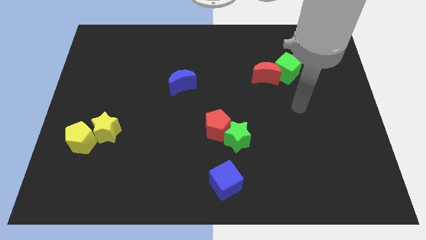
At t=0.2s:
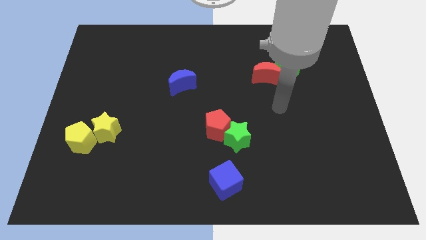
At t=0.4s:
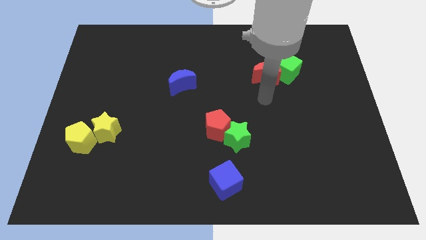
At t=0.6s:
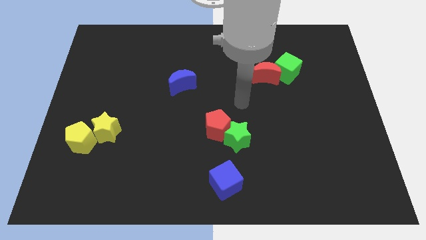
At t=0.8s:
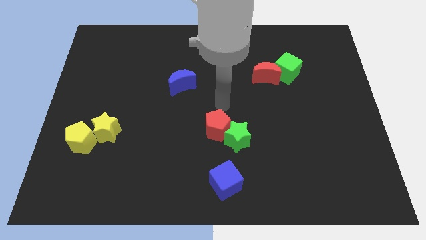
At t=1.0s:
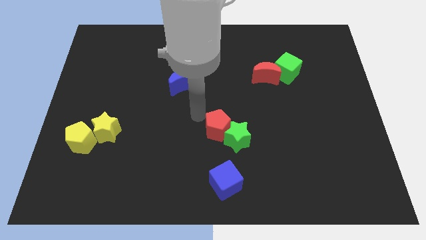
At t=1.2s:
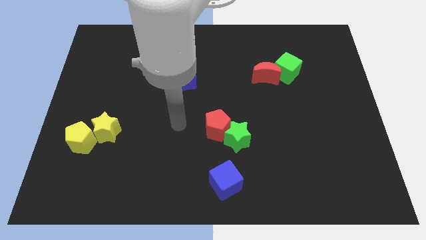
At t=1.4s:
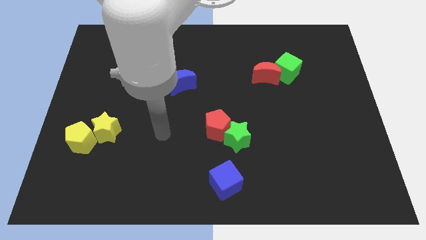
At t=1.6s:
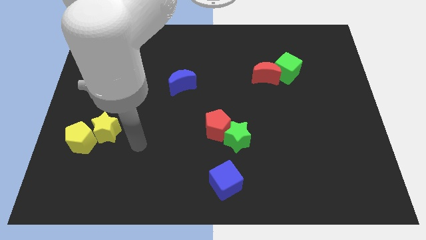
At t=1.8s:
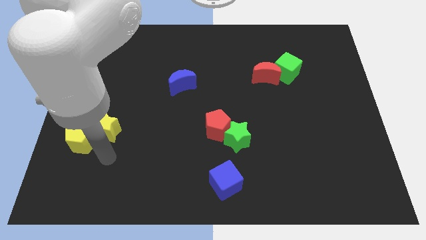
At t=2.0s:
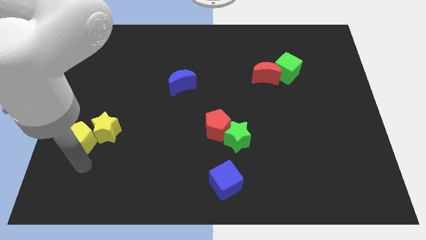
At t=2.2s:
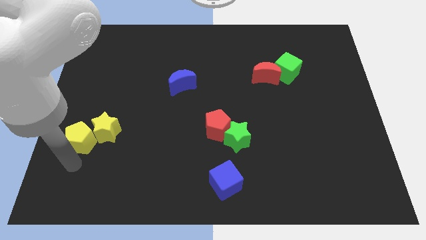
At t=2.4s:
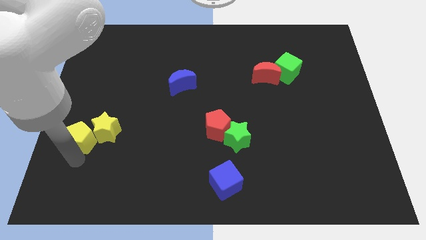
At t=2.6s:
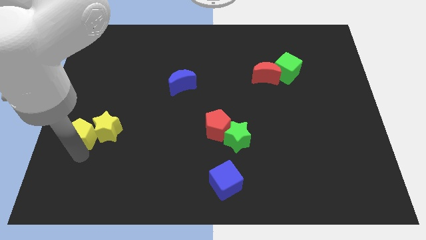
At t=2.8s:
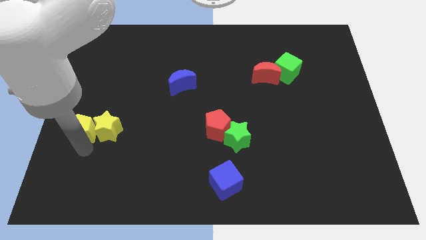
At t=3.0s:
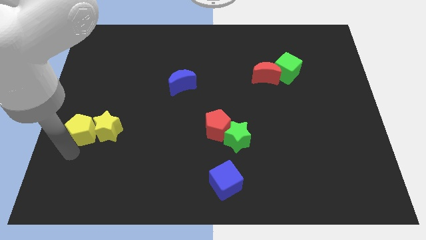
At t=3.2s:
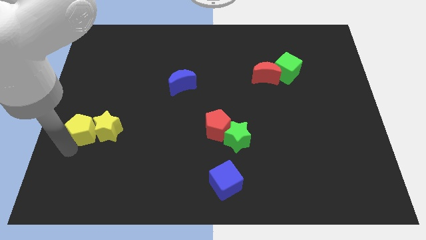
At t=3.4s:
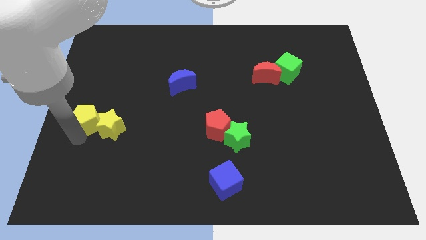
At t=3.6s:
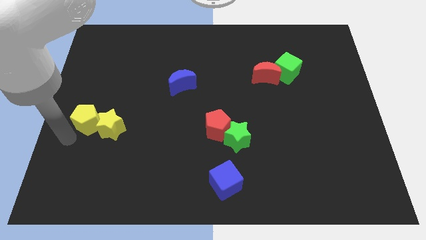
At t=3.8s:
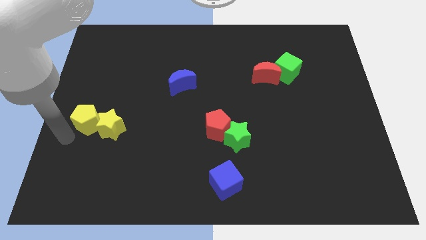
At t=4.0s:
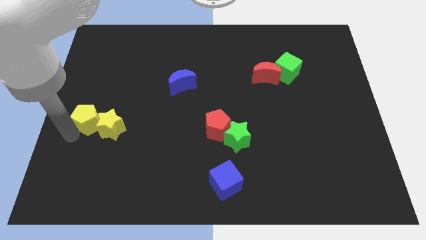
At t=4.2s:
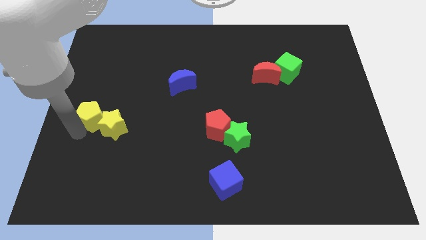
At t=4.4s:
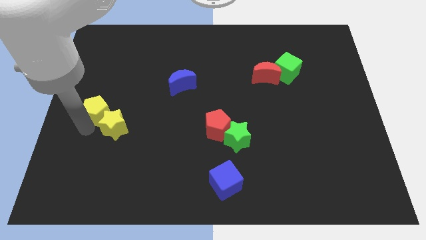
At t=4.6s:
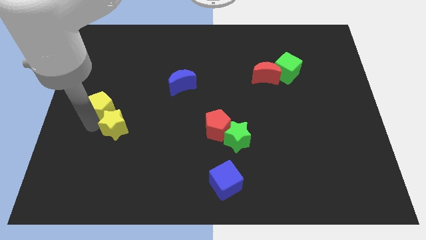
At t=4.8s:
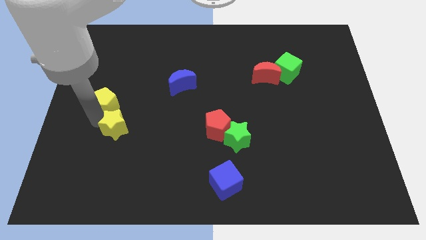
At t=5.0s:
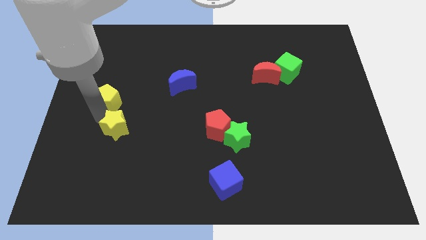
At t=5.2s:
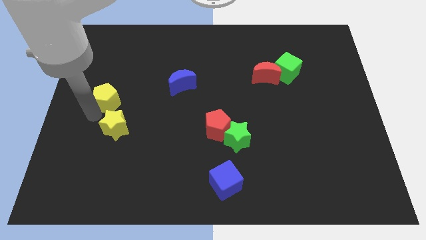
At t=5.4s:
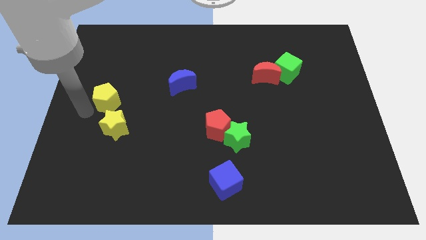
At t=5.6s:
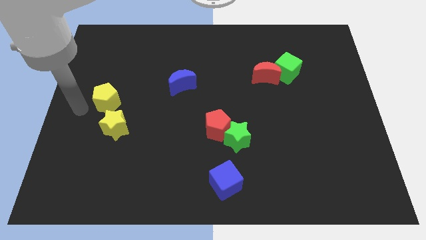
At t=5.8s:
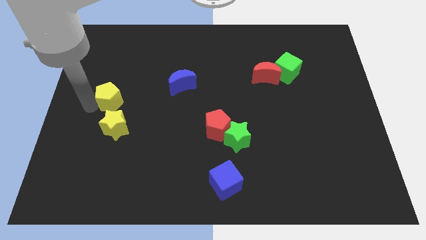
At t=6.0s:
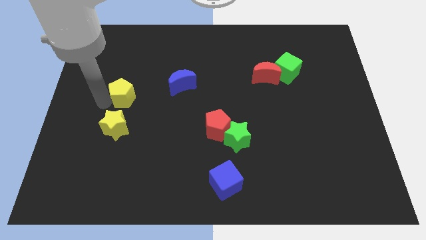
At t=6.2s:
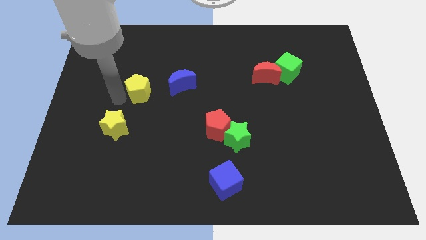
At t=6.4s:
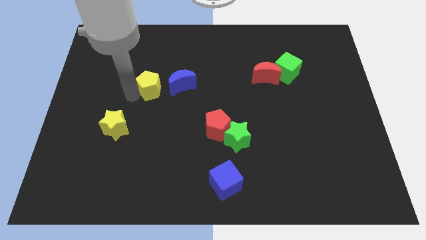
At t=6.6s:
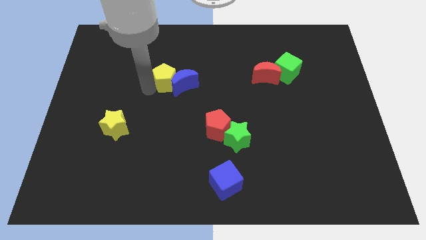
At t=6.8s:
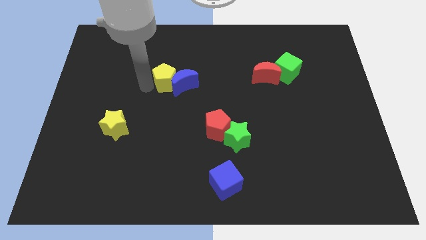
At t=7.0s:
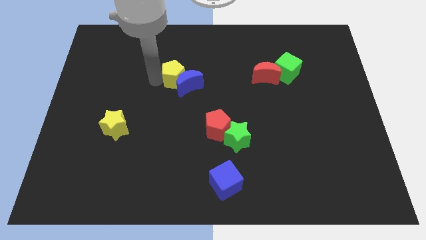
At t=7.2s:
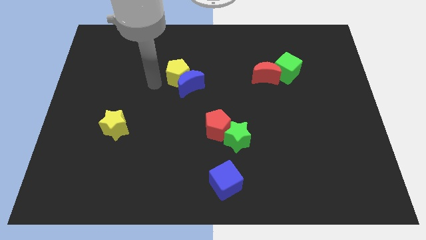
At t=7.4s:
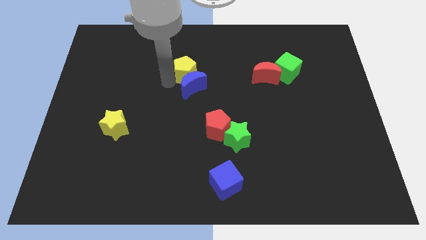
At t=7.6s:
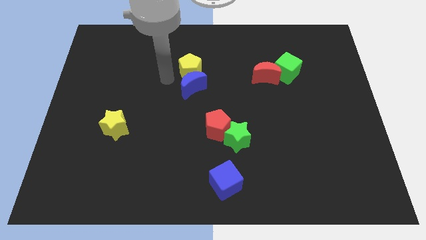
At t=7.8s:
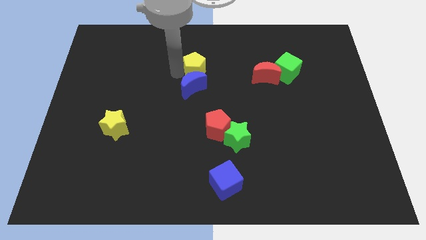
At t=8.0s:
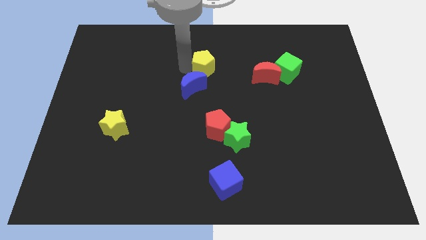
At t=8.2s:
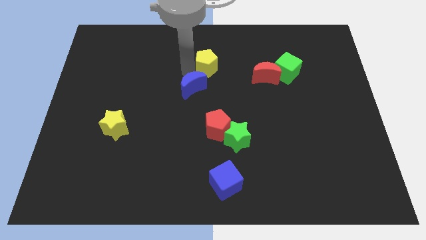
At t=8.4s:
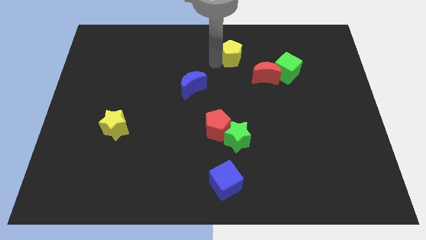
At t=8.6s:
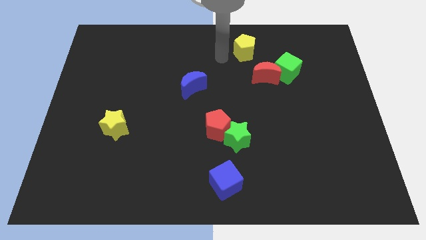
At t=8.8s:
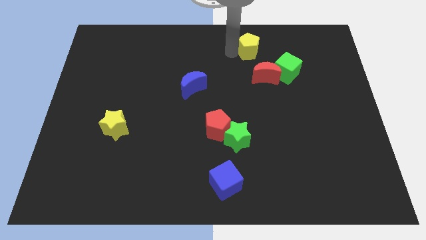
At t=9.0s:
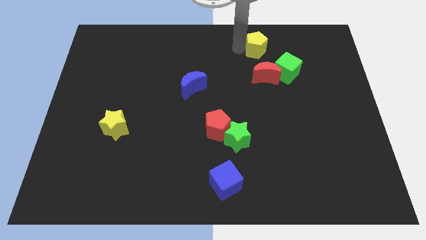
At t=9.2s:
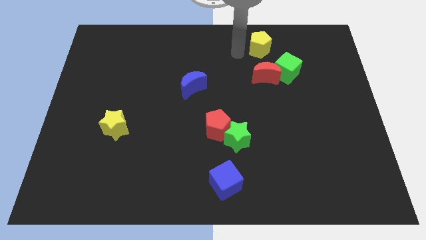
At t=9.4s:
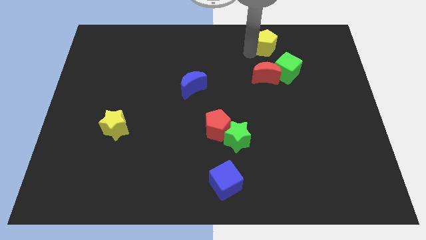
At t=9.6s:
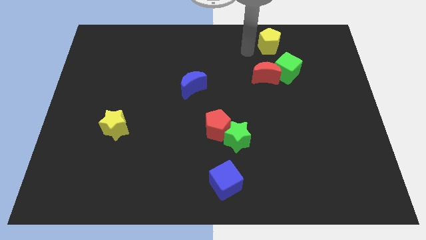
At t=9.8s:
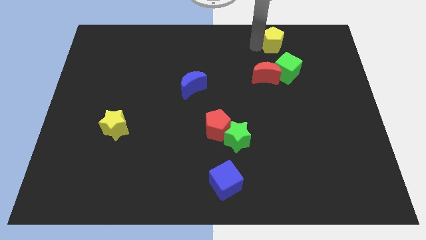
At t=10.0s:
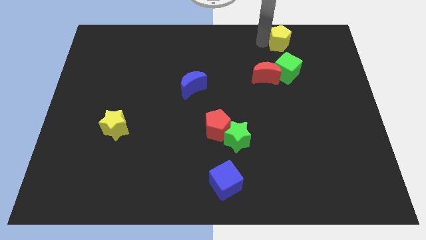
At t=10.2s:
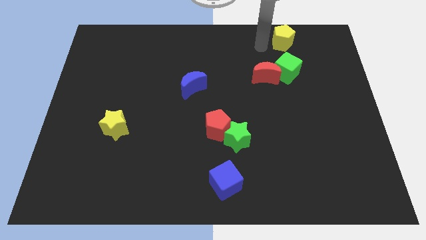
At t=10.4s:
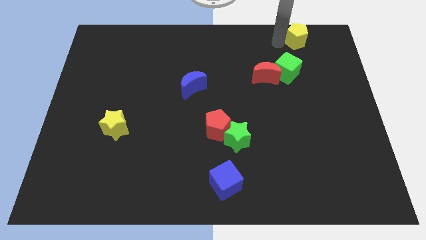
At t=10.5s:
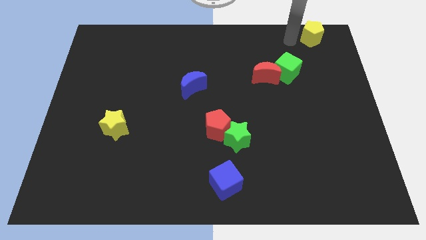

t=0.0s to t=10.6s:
move the yellow pentagon to the top right corner

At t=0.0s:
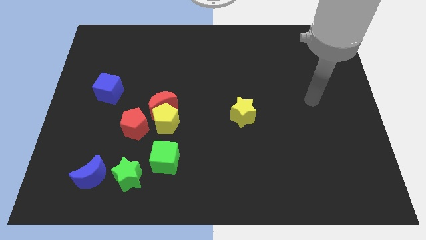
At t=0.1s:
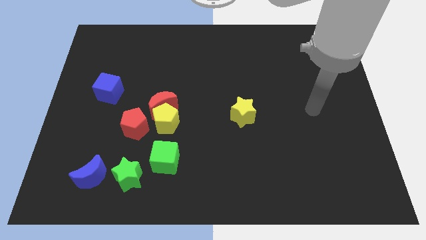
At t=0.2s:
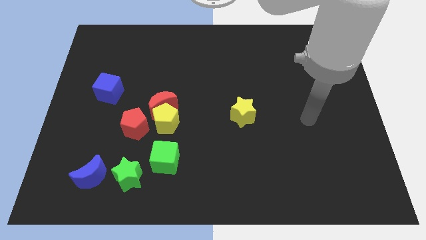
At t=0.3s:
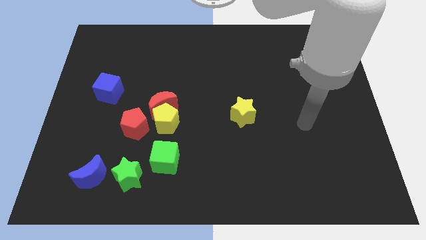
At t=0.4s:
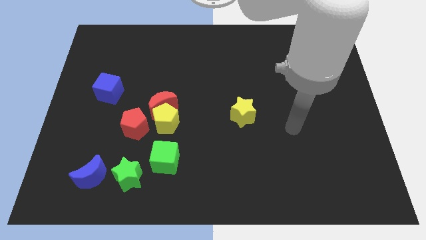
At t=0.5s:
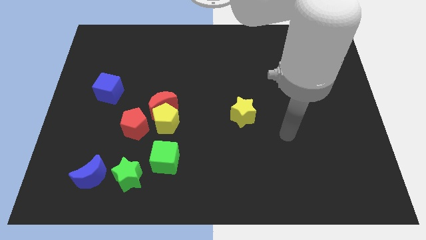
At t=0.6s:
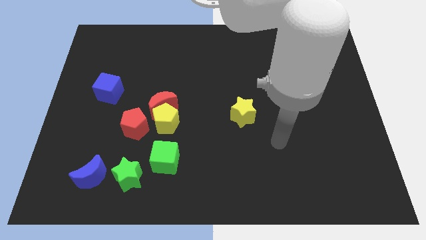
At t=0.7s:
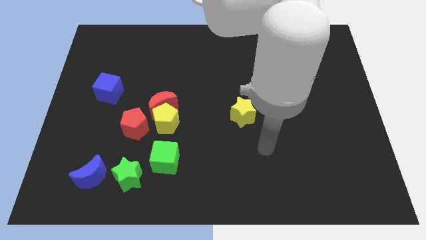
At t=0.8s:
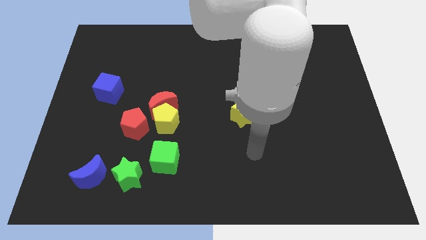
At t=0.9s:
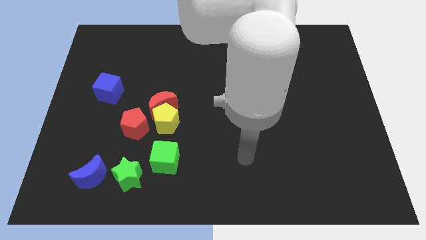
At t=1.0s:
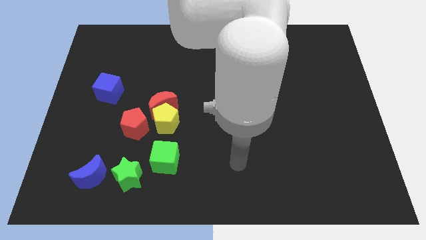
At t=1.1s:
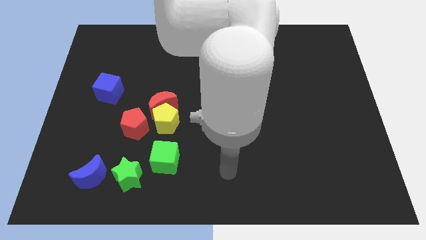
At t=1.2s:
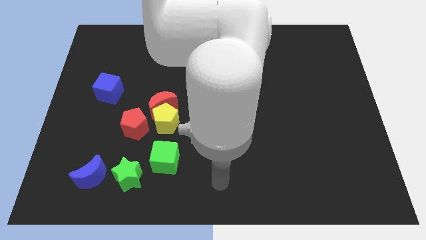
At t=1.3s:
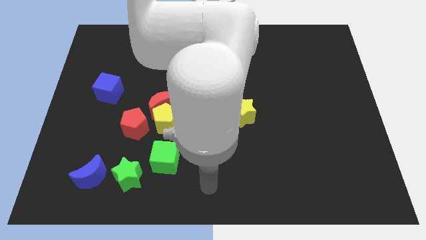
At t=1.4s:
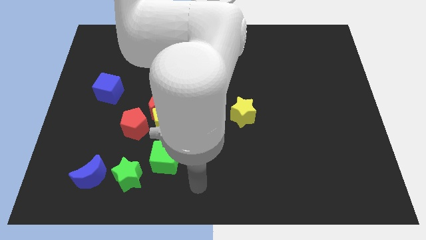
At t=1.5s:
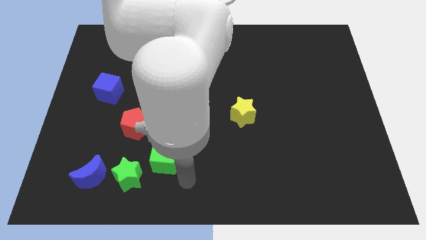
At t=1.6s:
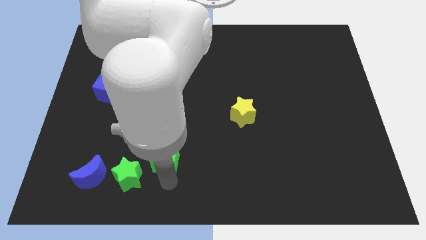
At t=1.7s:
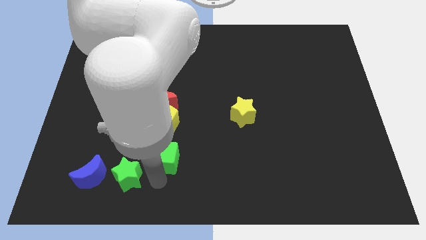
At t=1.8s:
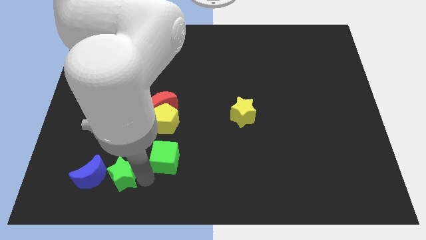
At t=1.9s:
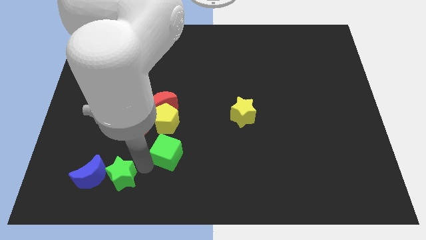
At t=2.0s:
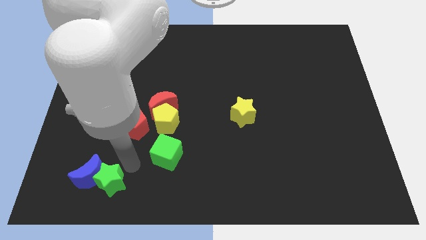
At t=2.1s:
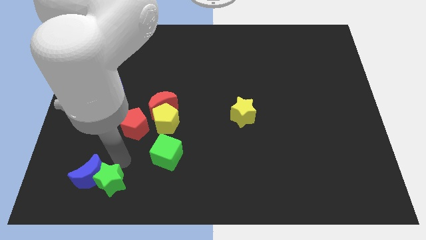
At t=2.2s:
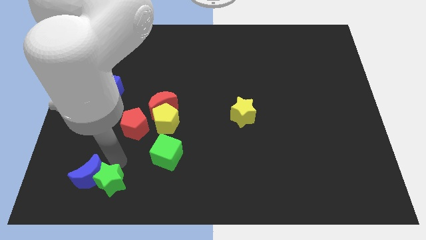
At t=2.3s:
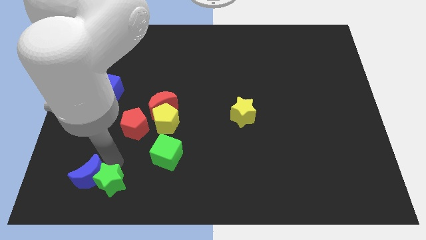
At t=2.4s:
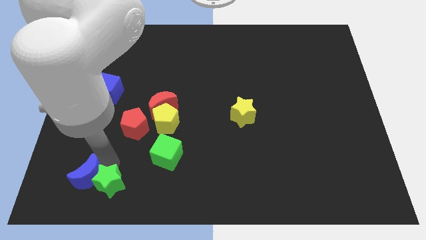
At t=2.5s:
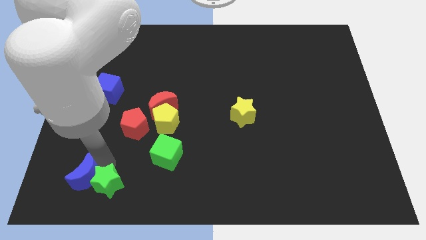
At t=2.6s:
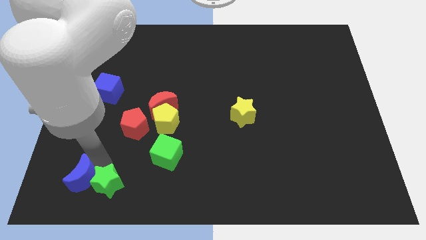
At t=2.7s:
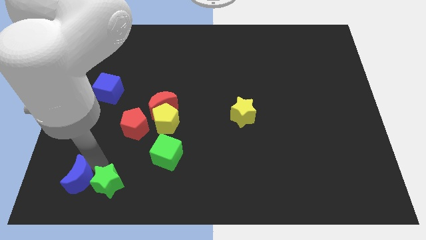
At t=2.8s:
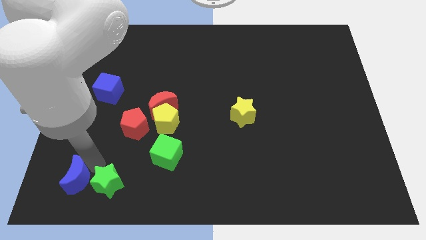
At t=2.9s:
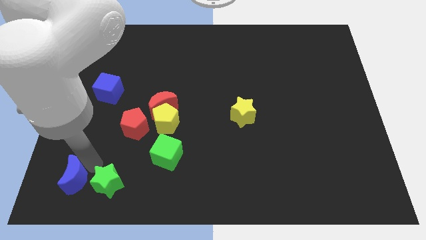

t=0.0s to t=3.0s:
move the blue moon to the bottom left of the board
